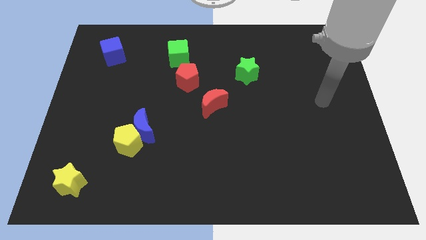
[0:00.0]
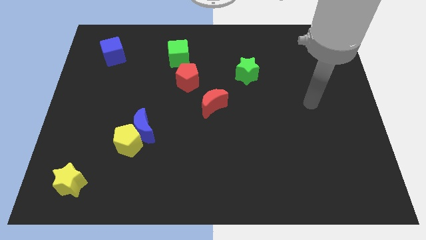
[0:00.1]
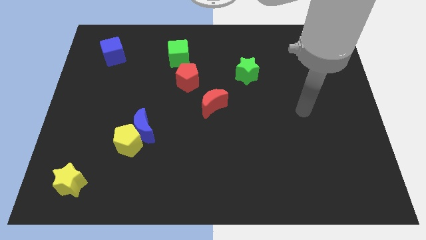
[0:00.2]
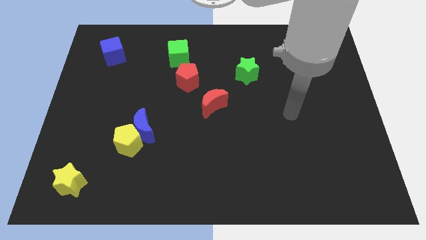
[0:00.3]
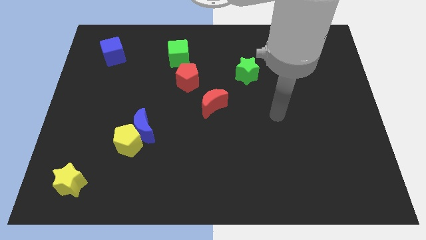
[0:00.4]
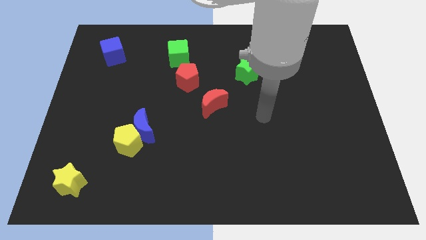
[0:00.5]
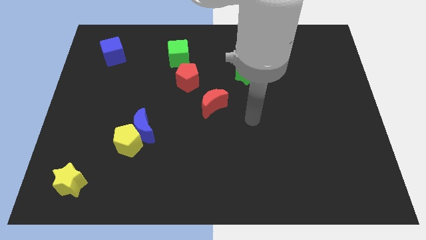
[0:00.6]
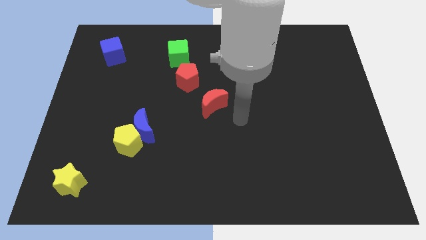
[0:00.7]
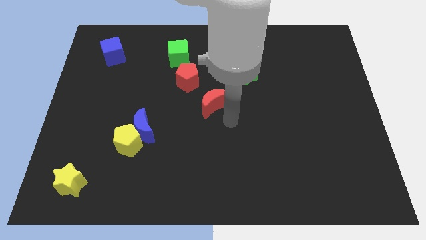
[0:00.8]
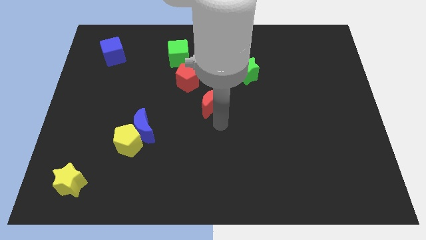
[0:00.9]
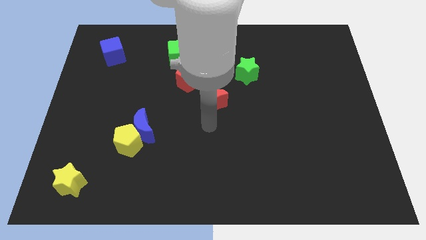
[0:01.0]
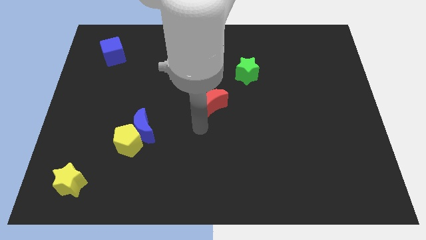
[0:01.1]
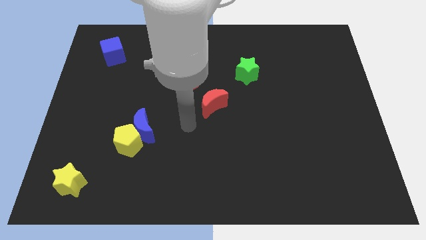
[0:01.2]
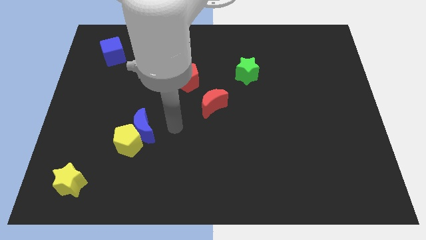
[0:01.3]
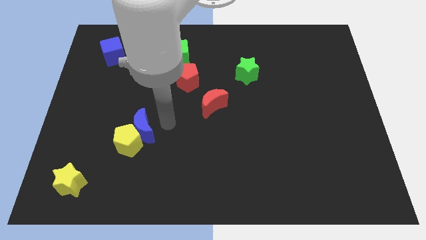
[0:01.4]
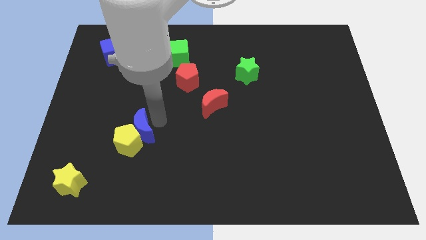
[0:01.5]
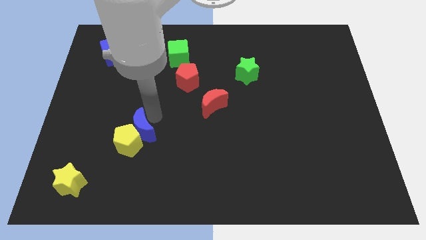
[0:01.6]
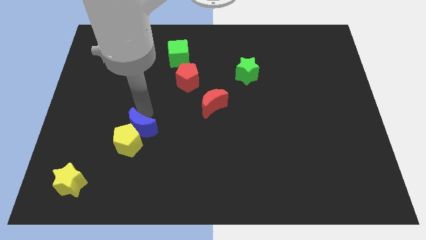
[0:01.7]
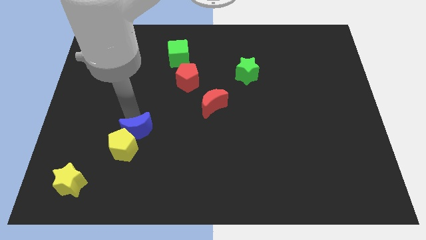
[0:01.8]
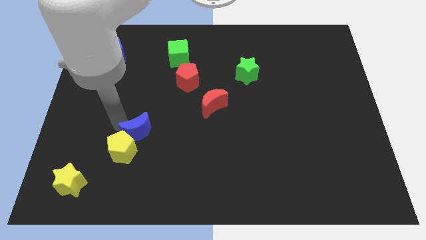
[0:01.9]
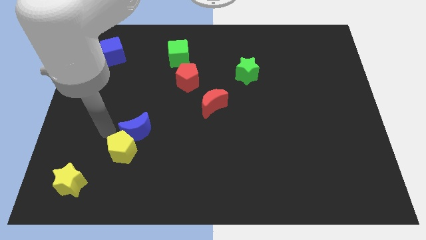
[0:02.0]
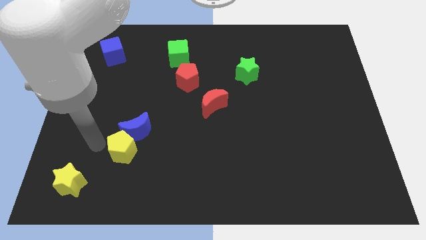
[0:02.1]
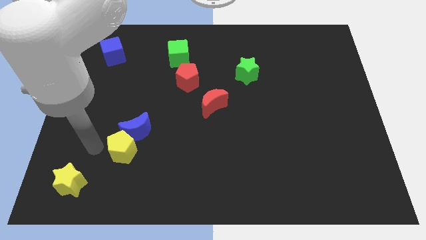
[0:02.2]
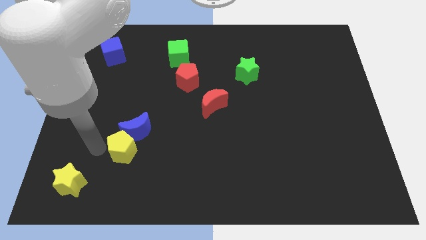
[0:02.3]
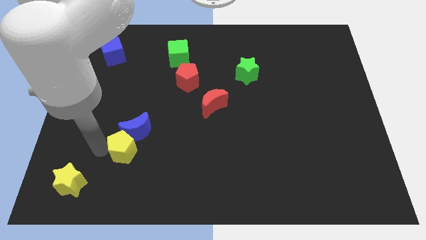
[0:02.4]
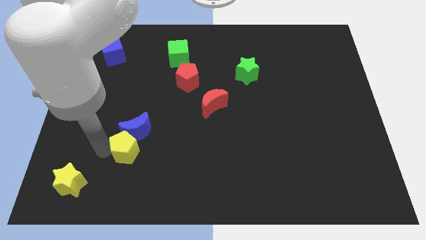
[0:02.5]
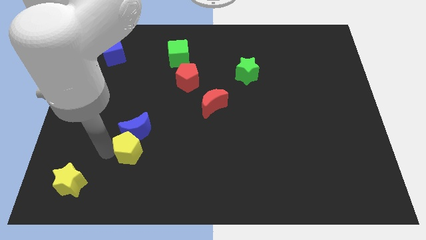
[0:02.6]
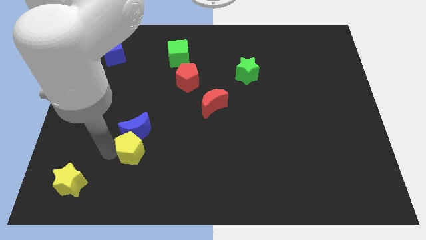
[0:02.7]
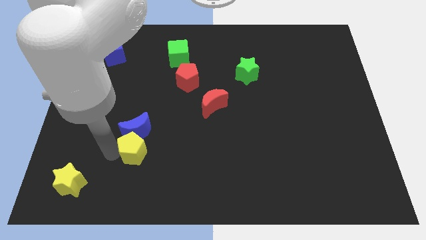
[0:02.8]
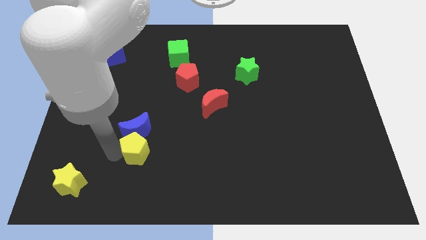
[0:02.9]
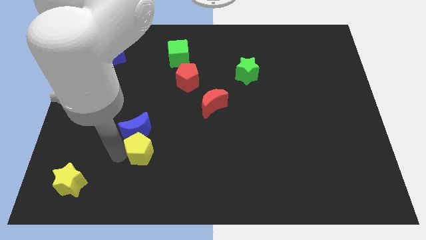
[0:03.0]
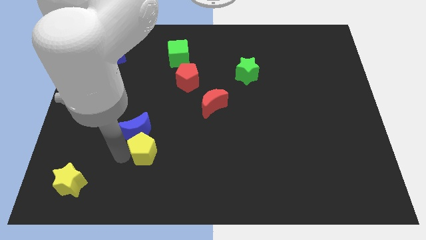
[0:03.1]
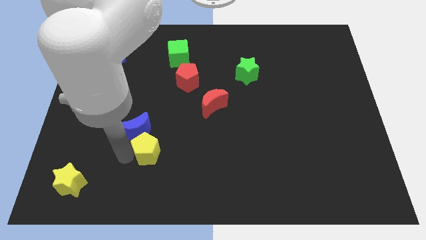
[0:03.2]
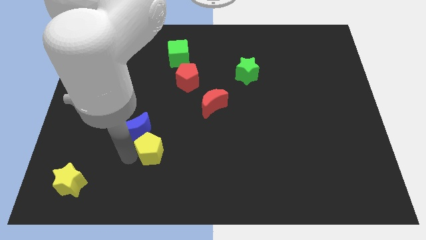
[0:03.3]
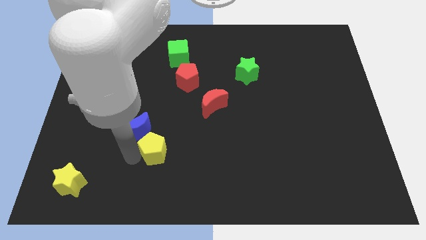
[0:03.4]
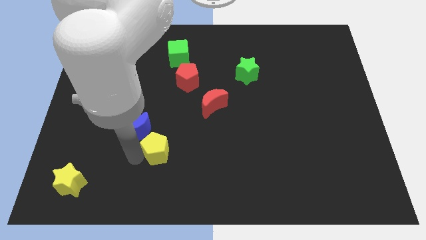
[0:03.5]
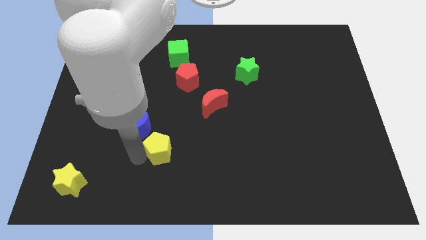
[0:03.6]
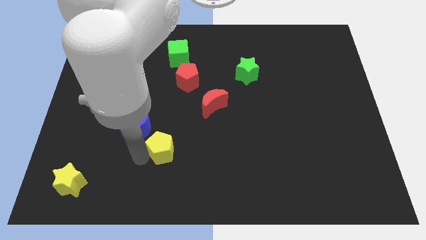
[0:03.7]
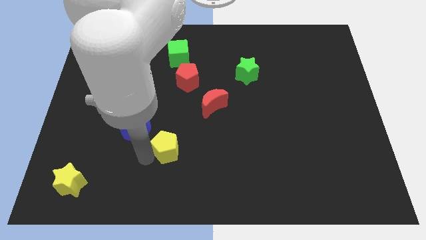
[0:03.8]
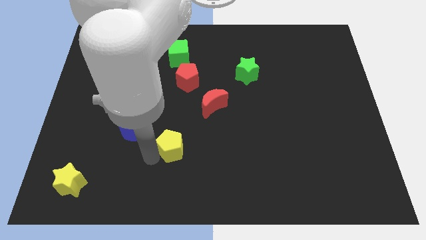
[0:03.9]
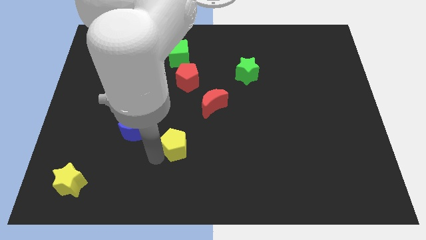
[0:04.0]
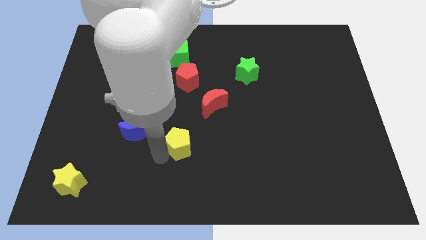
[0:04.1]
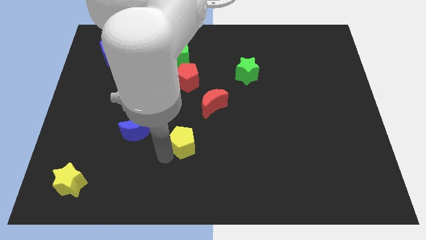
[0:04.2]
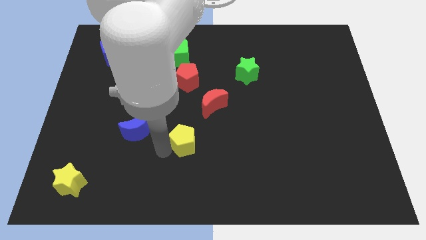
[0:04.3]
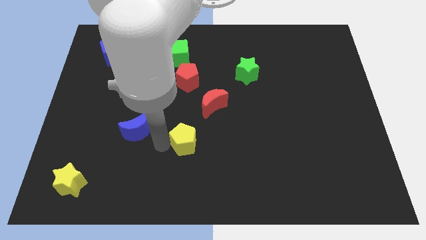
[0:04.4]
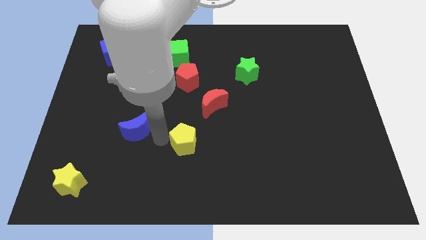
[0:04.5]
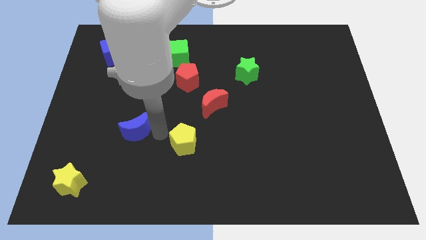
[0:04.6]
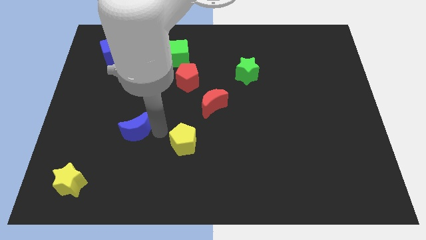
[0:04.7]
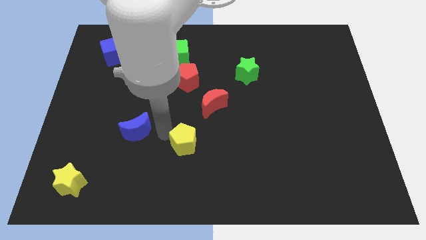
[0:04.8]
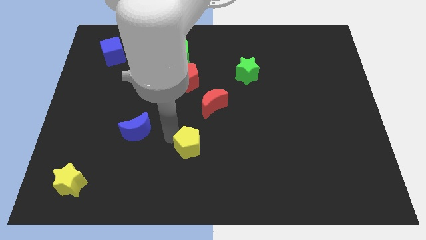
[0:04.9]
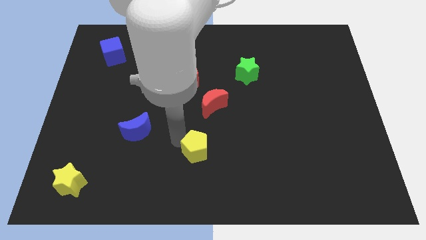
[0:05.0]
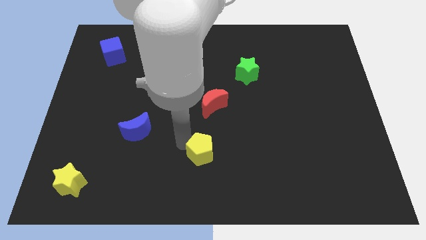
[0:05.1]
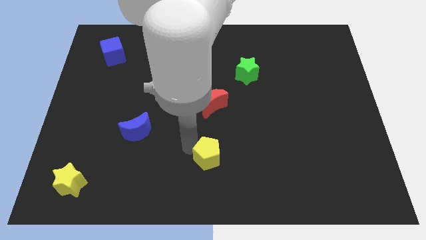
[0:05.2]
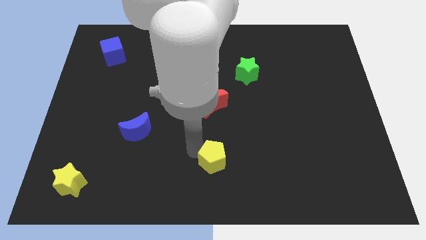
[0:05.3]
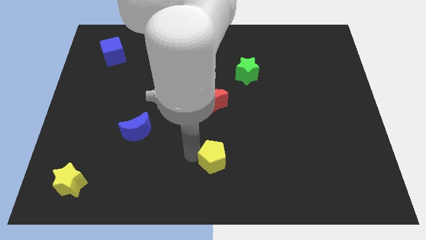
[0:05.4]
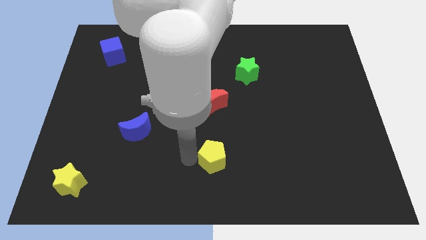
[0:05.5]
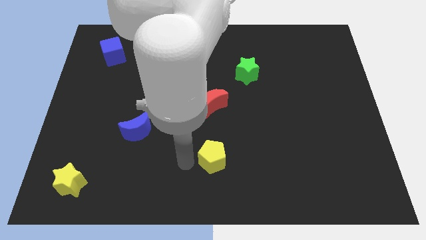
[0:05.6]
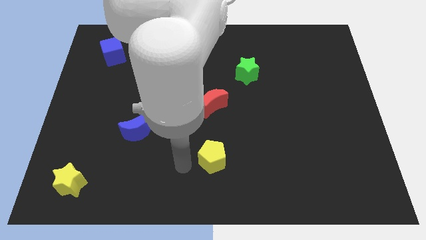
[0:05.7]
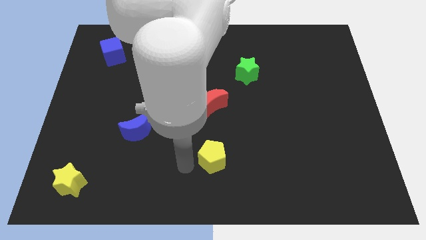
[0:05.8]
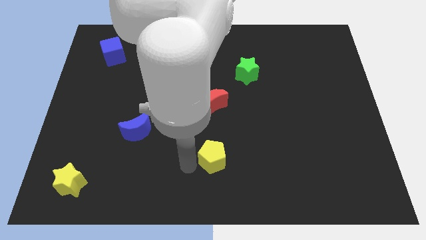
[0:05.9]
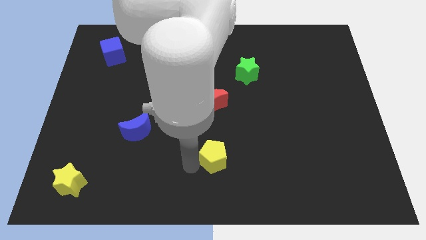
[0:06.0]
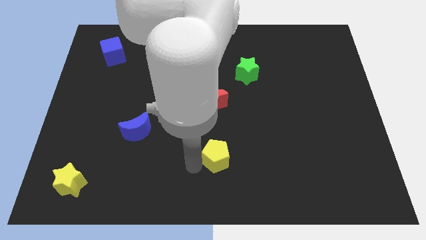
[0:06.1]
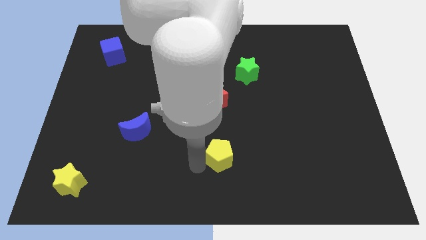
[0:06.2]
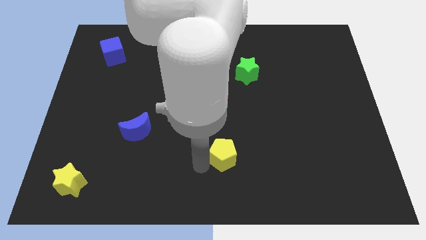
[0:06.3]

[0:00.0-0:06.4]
move the yellow pentagon to the right

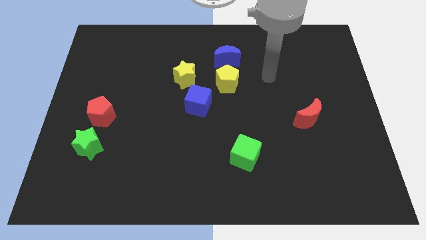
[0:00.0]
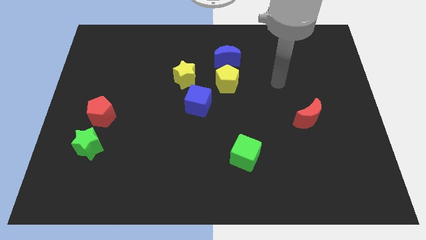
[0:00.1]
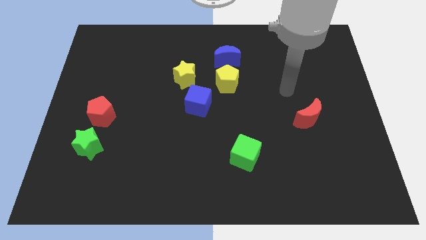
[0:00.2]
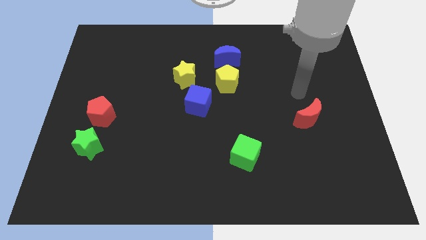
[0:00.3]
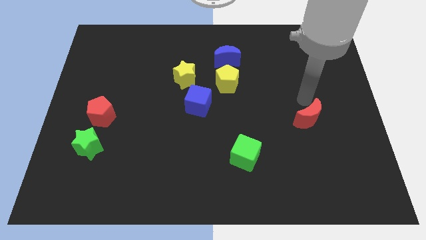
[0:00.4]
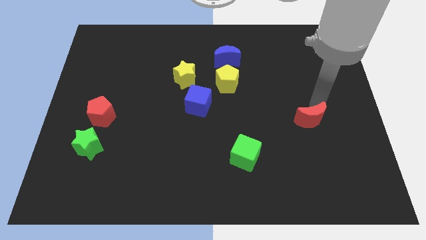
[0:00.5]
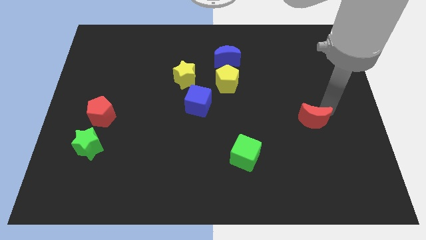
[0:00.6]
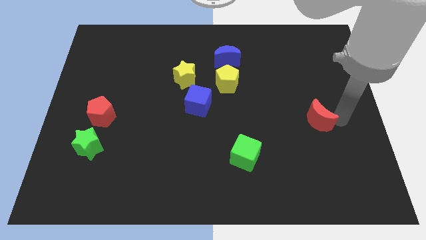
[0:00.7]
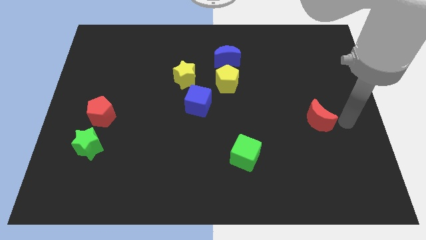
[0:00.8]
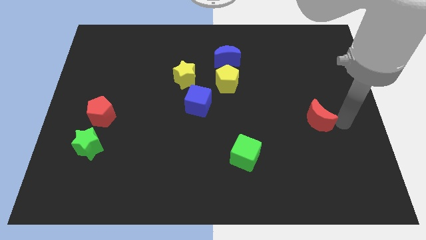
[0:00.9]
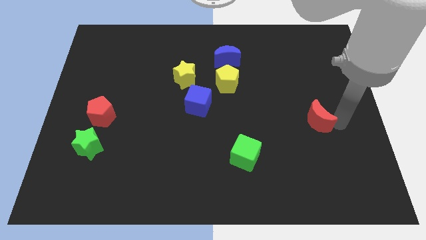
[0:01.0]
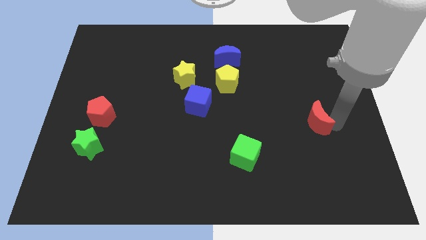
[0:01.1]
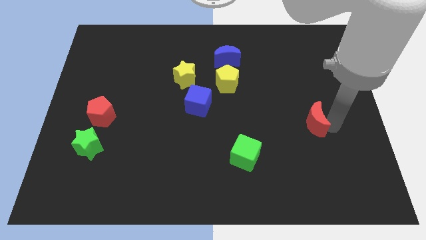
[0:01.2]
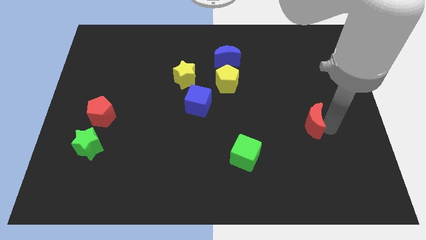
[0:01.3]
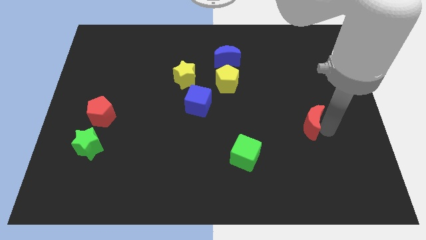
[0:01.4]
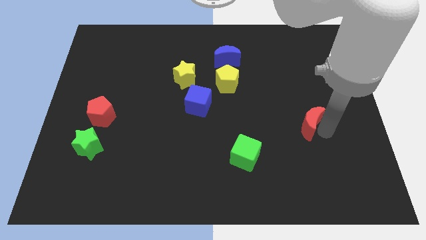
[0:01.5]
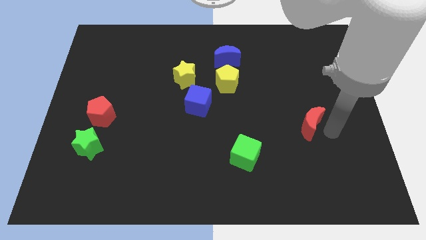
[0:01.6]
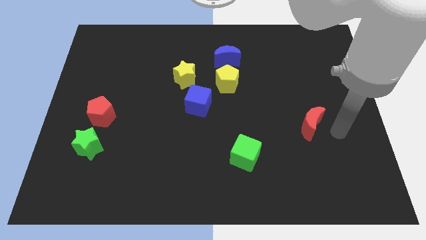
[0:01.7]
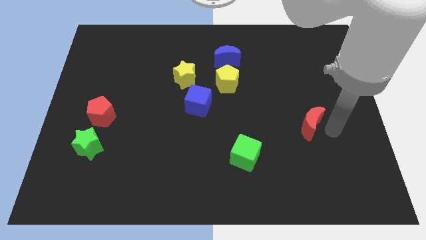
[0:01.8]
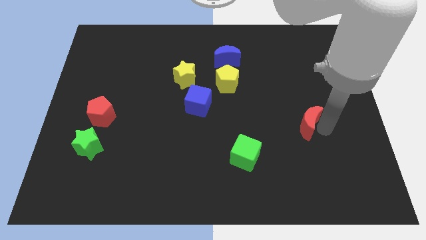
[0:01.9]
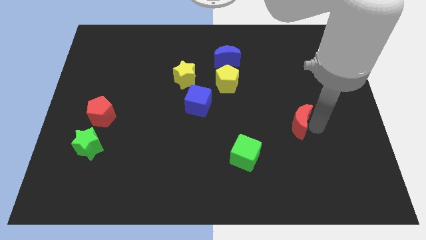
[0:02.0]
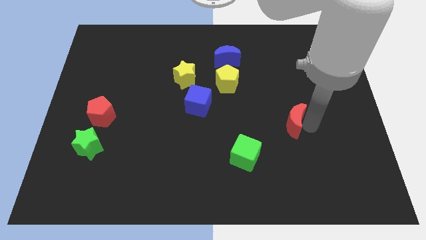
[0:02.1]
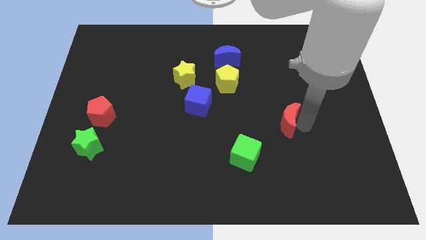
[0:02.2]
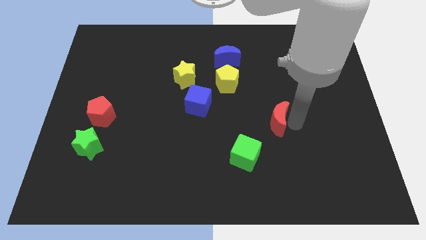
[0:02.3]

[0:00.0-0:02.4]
push the red moon slightly to the left
